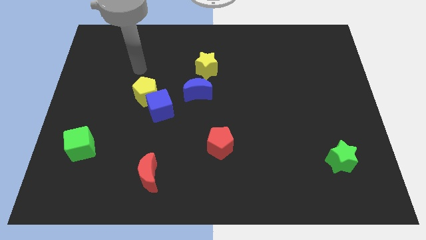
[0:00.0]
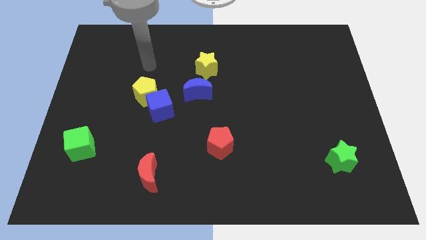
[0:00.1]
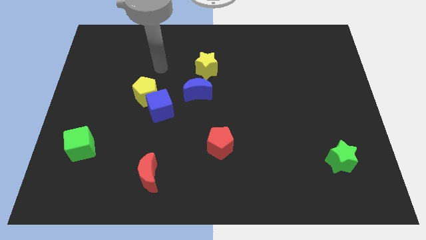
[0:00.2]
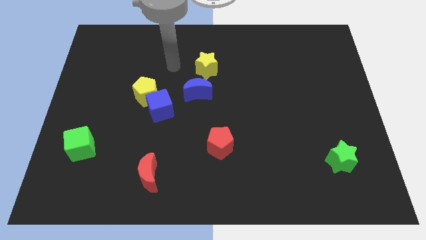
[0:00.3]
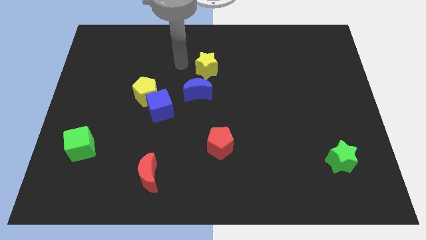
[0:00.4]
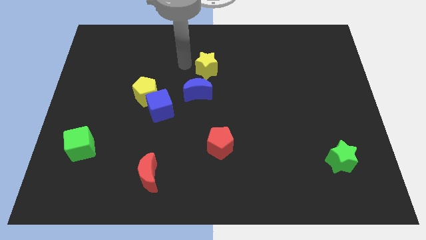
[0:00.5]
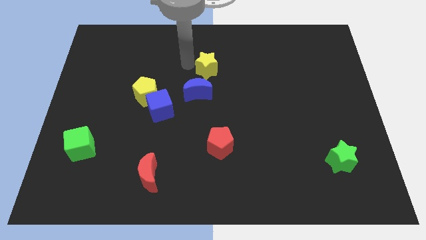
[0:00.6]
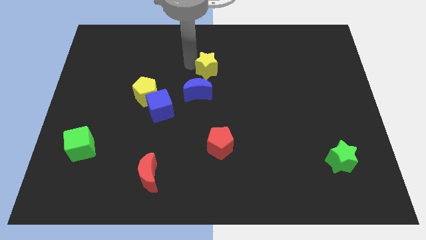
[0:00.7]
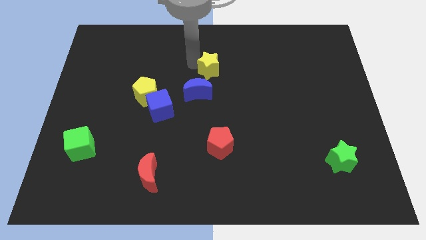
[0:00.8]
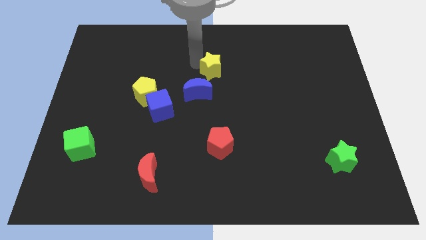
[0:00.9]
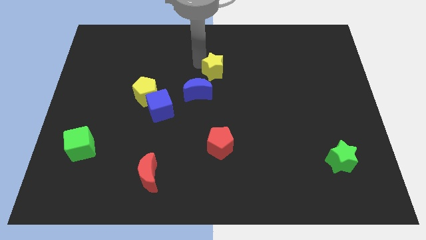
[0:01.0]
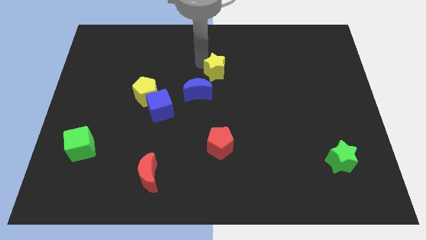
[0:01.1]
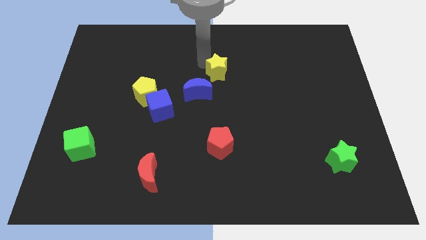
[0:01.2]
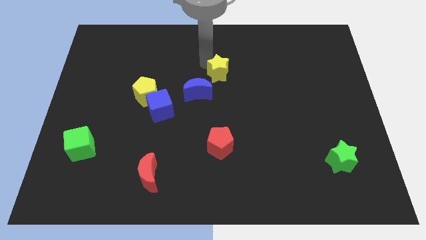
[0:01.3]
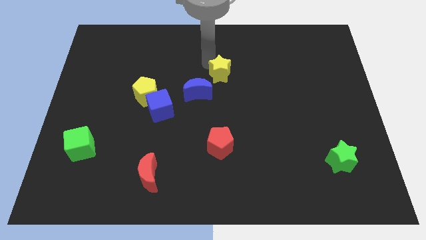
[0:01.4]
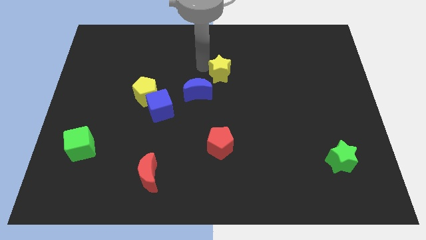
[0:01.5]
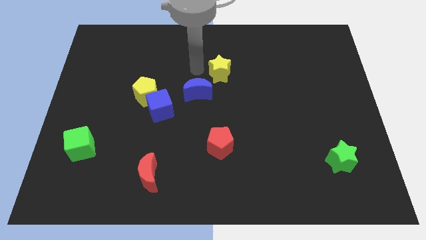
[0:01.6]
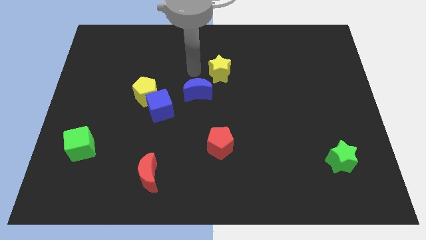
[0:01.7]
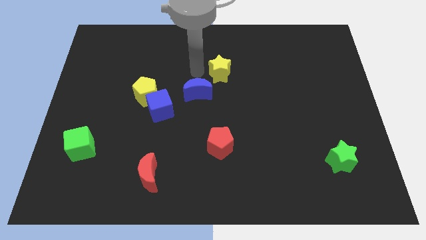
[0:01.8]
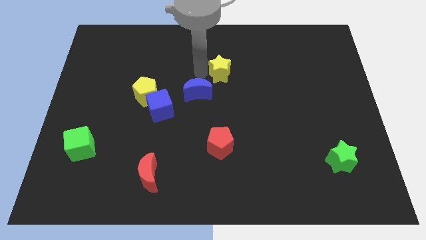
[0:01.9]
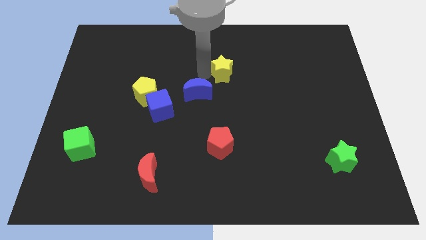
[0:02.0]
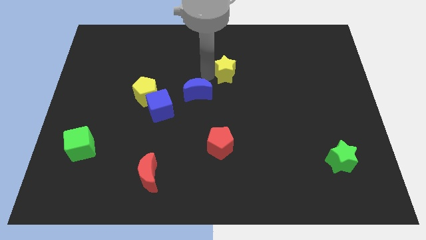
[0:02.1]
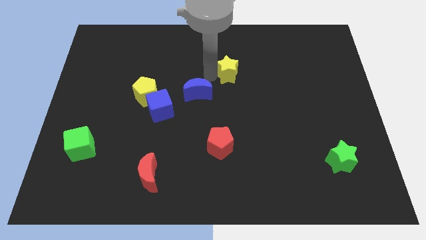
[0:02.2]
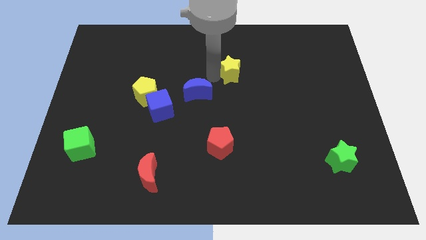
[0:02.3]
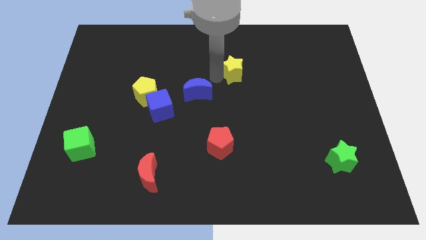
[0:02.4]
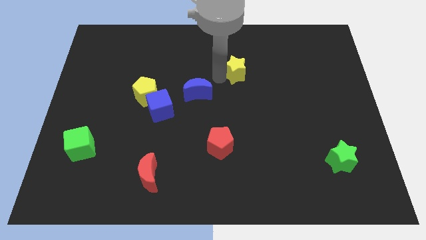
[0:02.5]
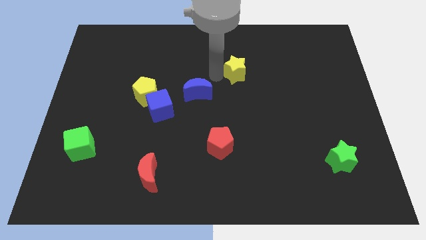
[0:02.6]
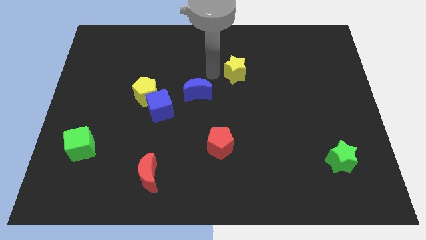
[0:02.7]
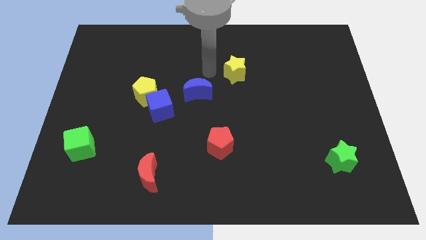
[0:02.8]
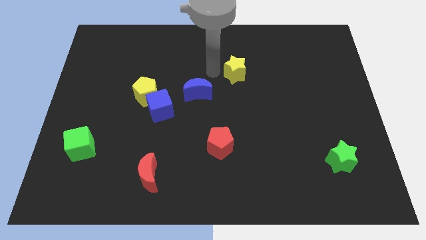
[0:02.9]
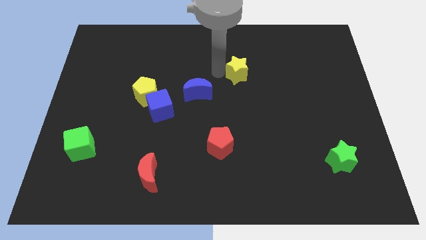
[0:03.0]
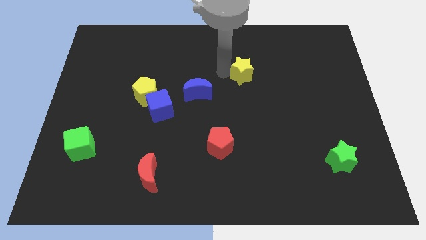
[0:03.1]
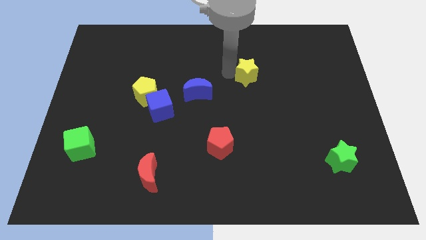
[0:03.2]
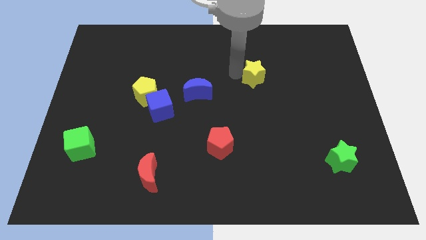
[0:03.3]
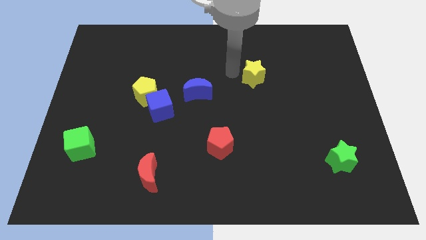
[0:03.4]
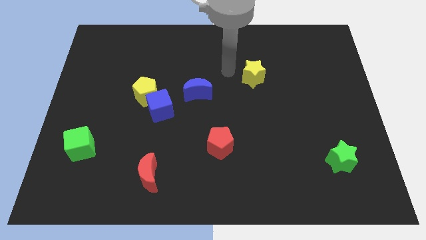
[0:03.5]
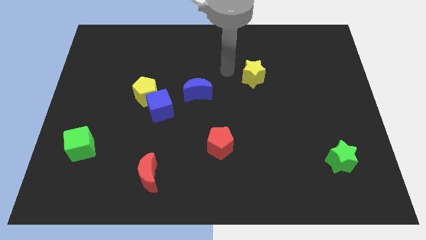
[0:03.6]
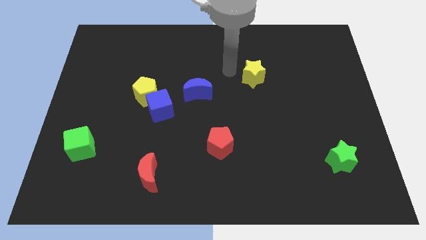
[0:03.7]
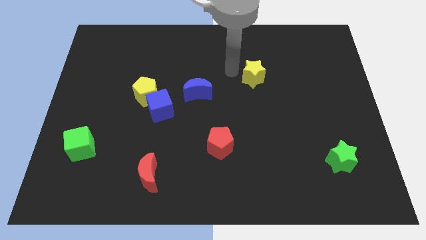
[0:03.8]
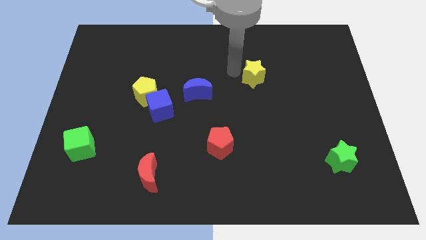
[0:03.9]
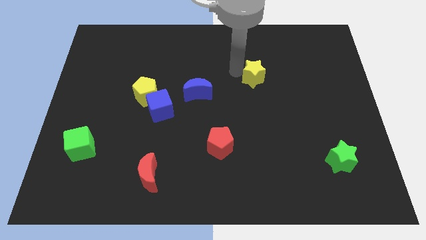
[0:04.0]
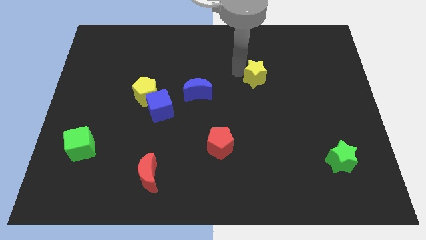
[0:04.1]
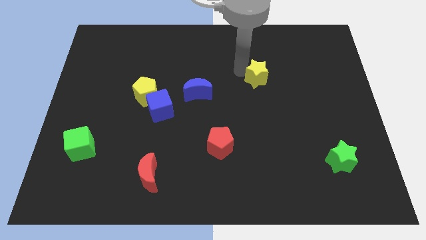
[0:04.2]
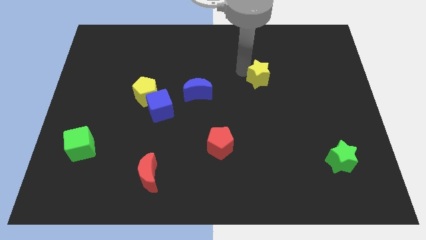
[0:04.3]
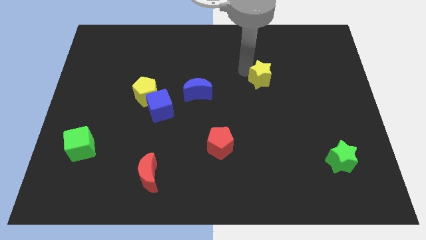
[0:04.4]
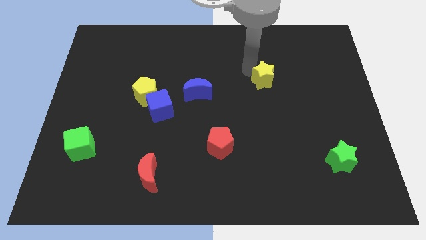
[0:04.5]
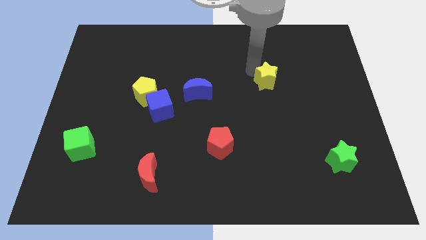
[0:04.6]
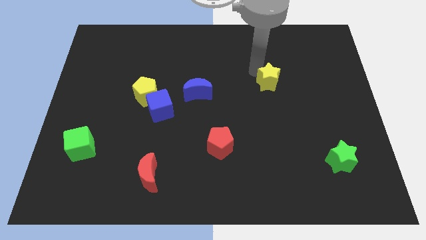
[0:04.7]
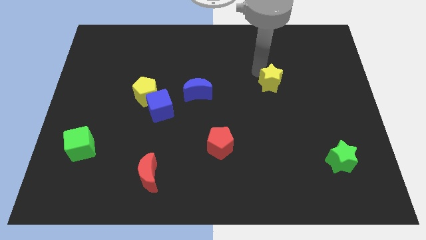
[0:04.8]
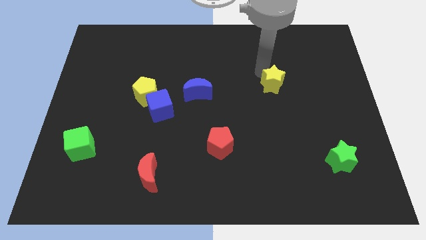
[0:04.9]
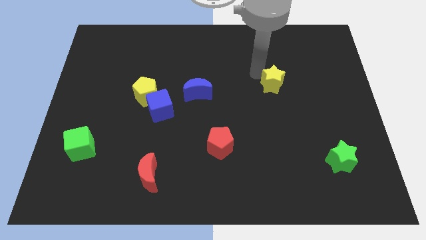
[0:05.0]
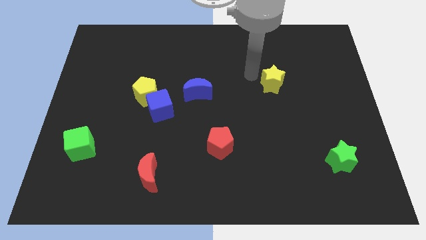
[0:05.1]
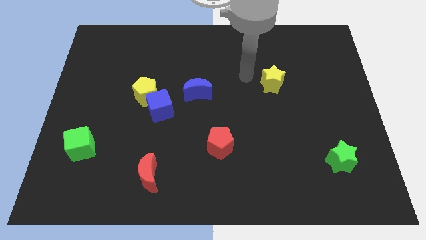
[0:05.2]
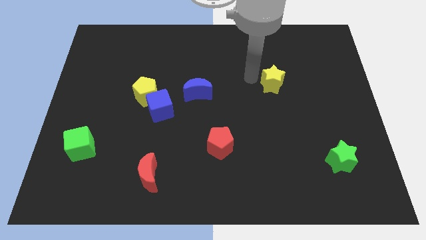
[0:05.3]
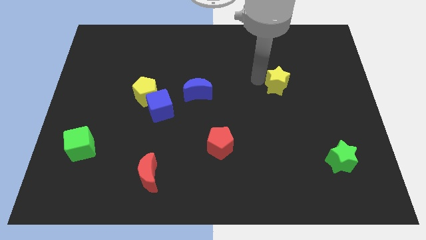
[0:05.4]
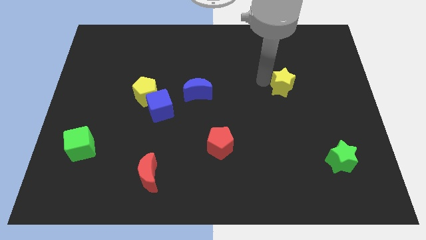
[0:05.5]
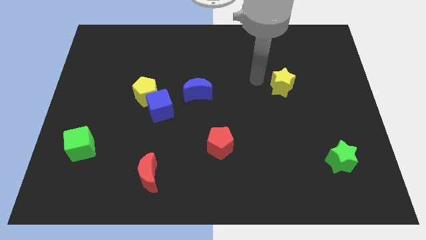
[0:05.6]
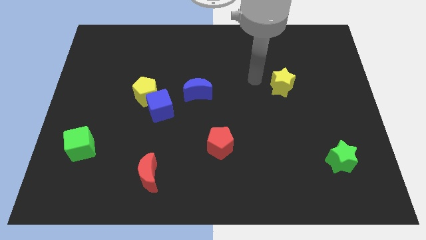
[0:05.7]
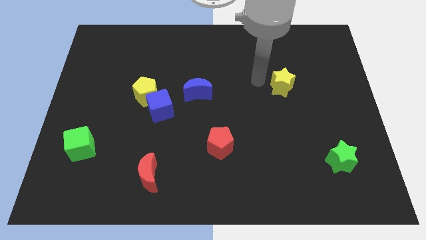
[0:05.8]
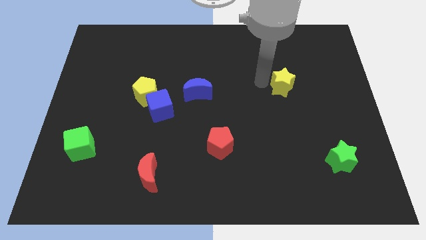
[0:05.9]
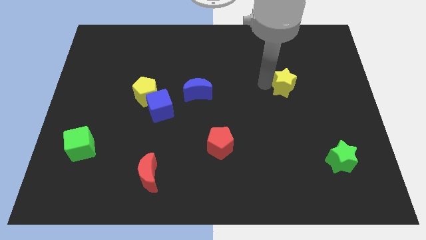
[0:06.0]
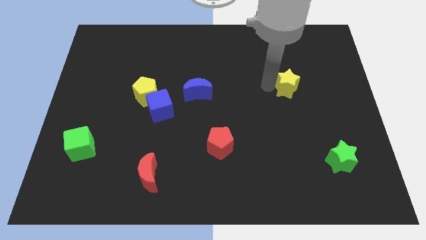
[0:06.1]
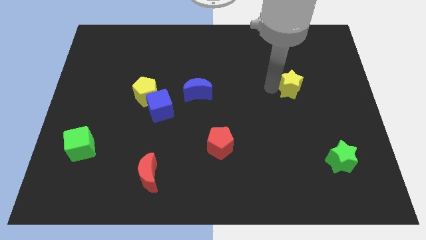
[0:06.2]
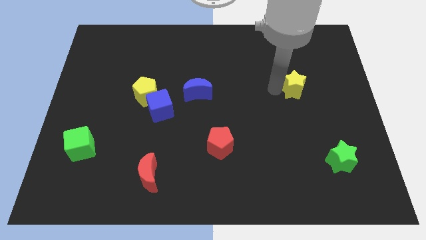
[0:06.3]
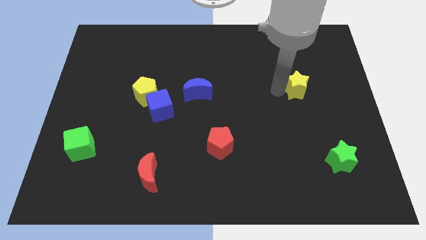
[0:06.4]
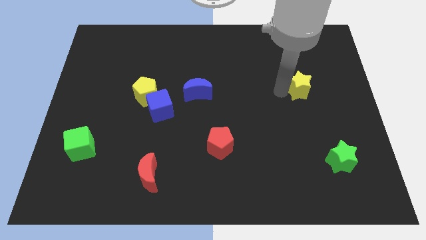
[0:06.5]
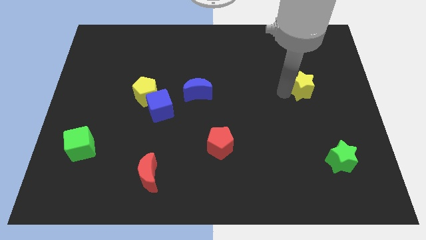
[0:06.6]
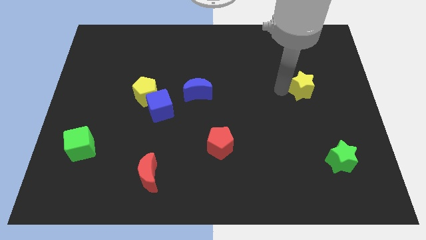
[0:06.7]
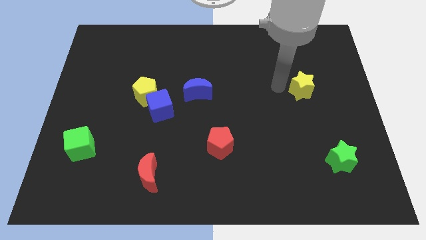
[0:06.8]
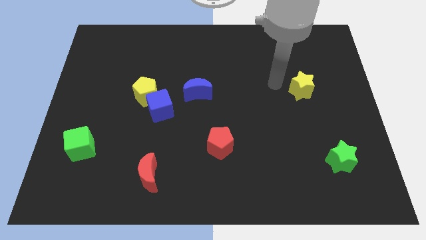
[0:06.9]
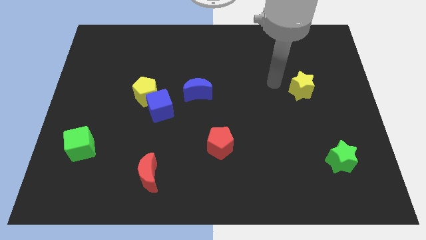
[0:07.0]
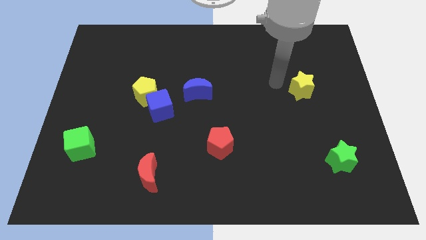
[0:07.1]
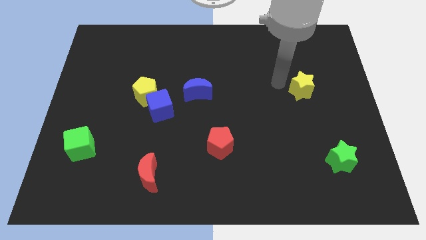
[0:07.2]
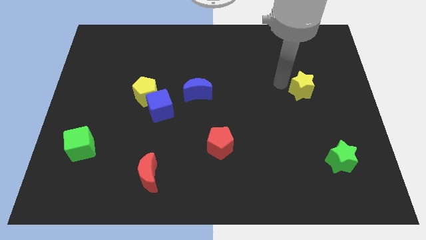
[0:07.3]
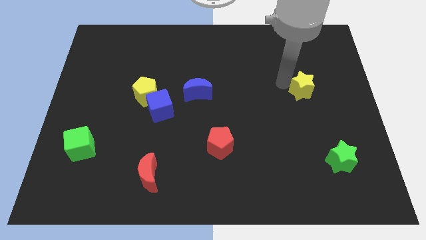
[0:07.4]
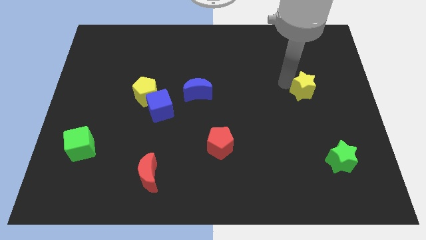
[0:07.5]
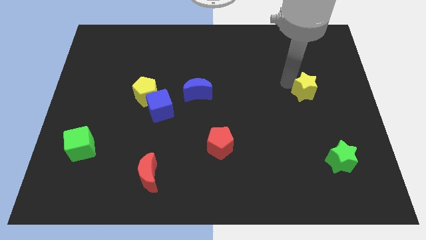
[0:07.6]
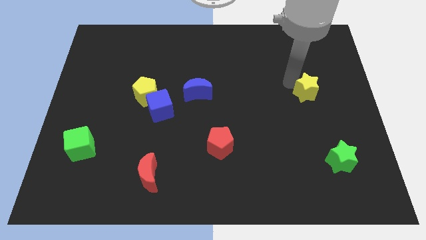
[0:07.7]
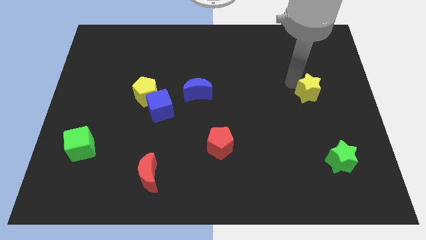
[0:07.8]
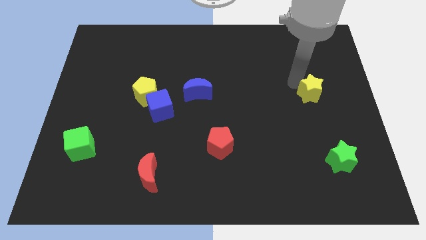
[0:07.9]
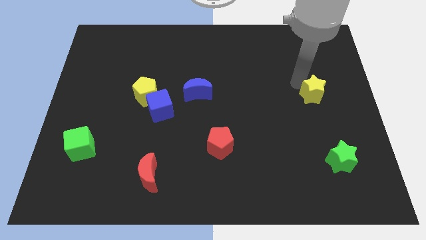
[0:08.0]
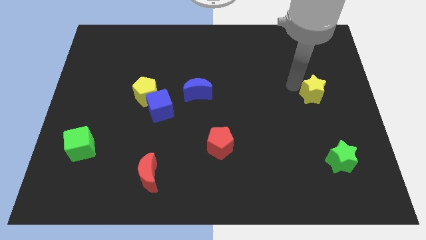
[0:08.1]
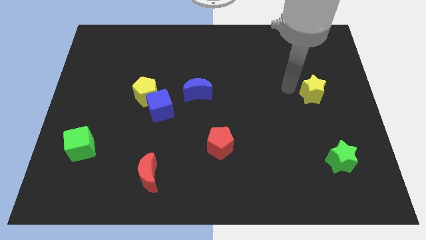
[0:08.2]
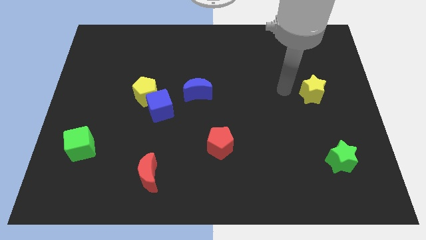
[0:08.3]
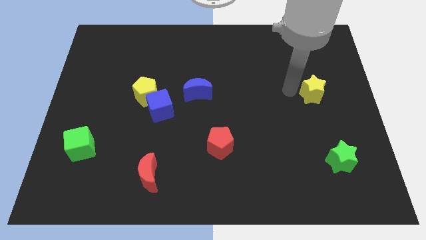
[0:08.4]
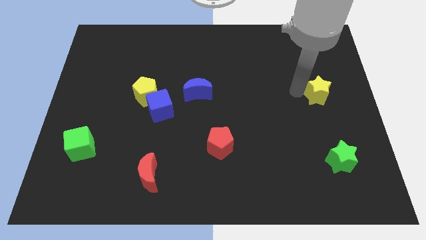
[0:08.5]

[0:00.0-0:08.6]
push the yellow star to the center right
